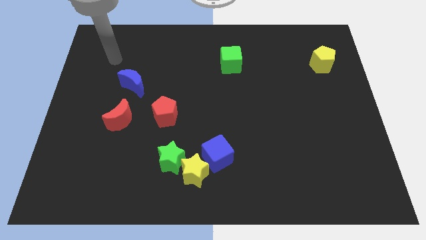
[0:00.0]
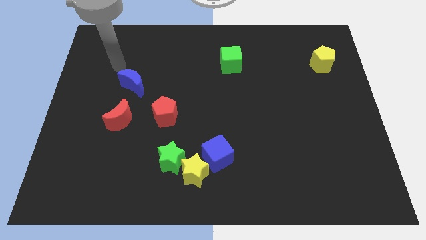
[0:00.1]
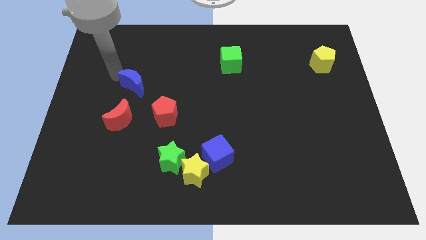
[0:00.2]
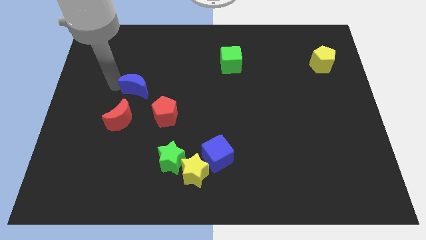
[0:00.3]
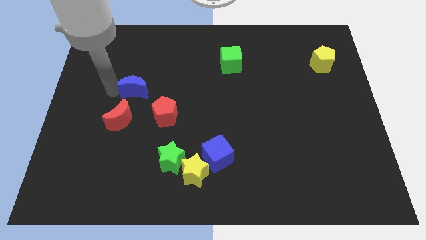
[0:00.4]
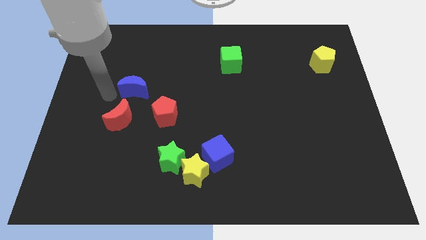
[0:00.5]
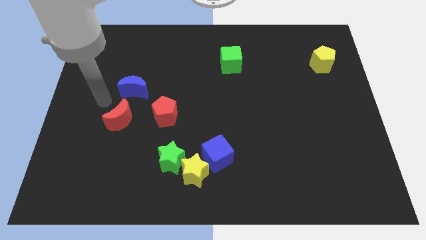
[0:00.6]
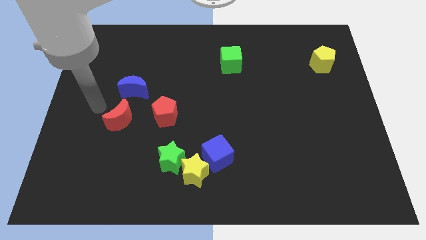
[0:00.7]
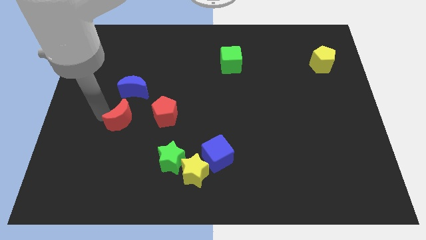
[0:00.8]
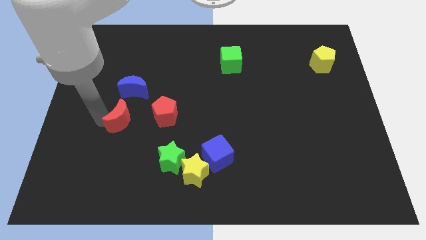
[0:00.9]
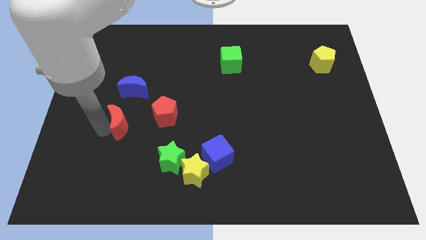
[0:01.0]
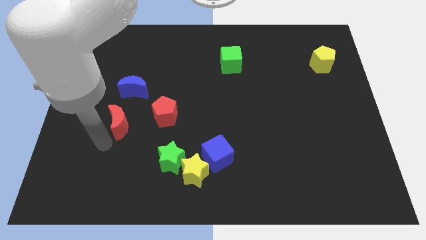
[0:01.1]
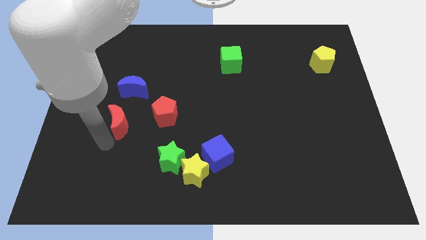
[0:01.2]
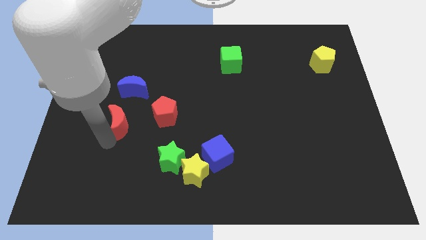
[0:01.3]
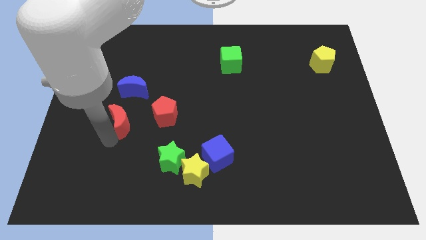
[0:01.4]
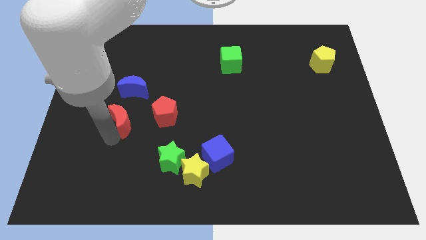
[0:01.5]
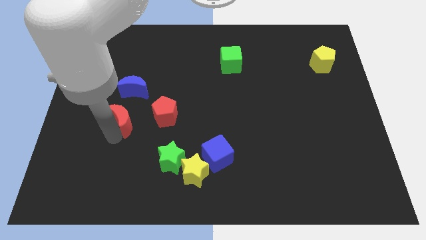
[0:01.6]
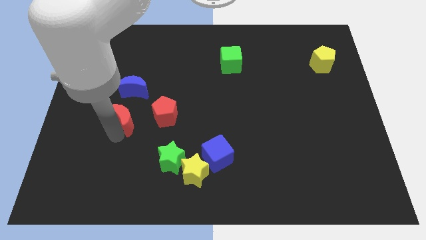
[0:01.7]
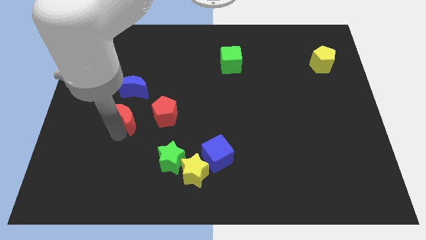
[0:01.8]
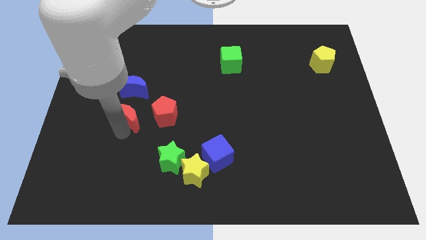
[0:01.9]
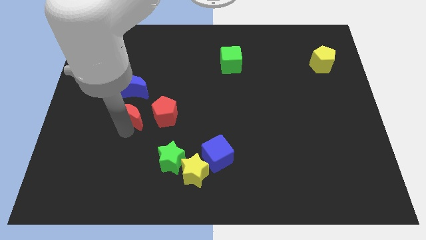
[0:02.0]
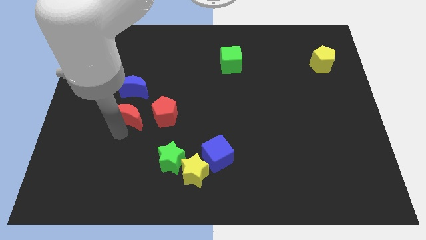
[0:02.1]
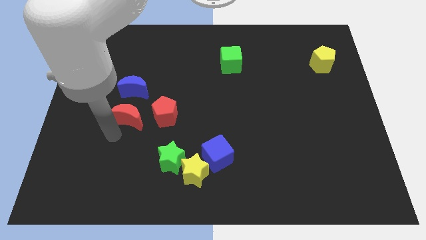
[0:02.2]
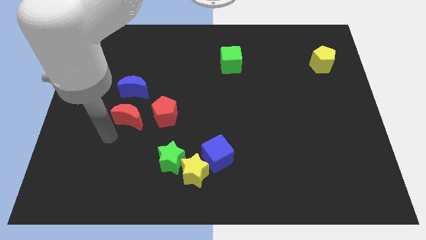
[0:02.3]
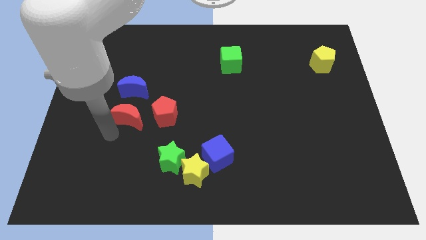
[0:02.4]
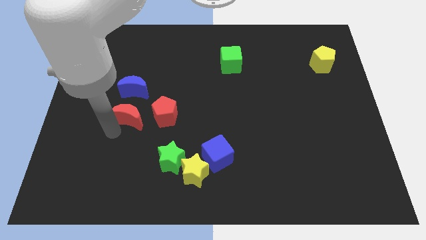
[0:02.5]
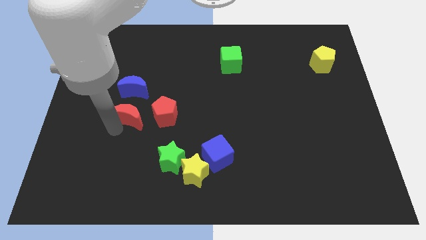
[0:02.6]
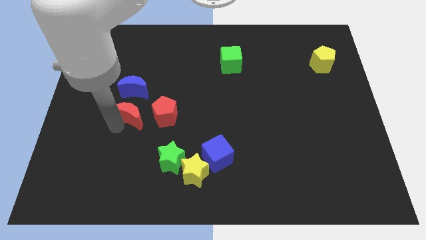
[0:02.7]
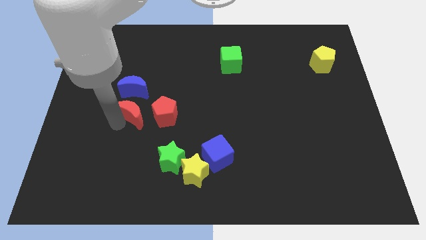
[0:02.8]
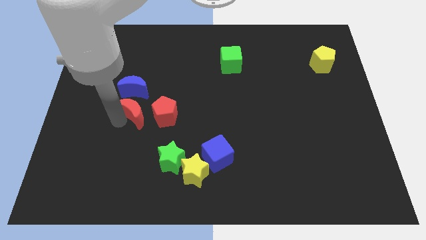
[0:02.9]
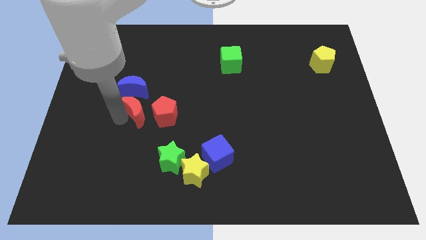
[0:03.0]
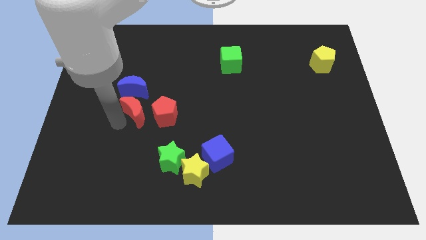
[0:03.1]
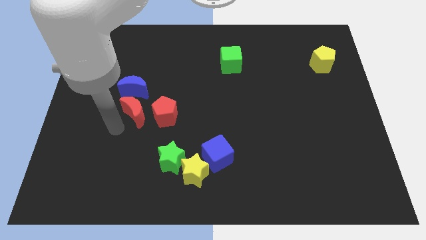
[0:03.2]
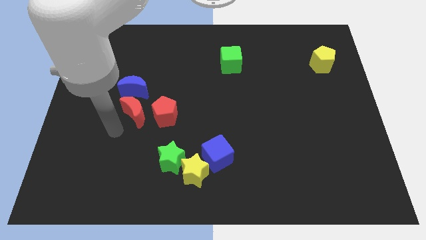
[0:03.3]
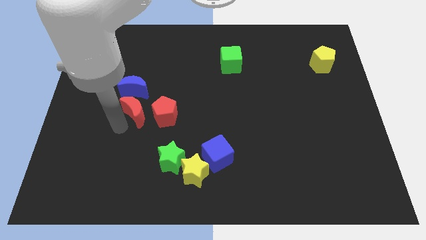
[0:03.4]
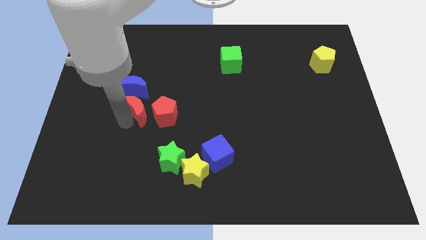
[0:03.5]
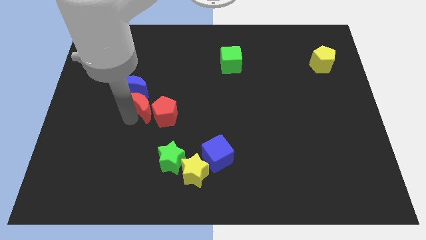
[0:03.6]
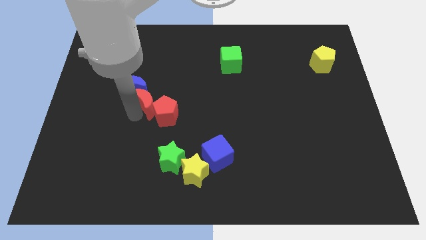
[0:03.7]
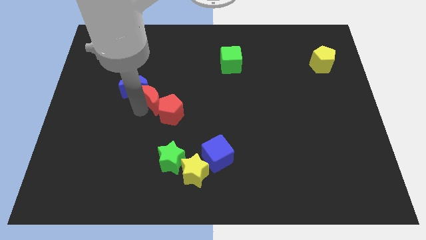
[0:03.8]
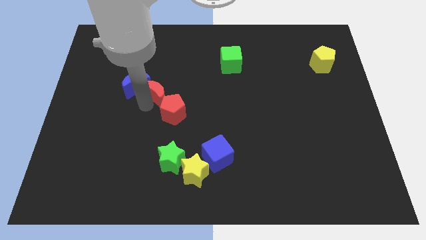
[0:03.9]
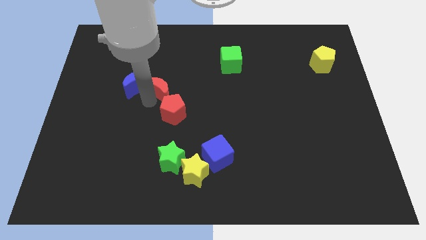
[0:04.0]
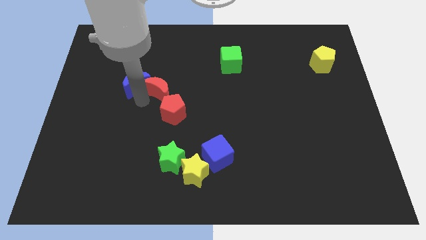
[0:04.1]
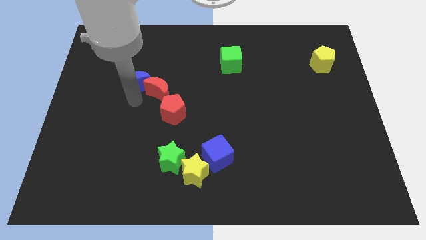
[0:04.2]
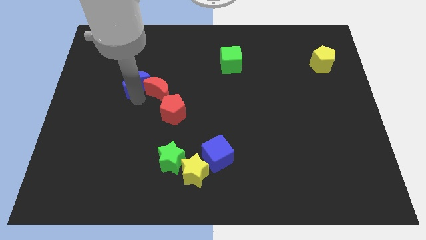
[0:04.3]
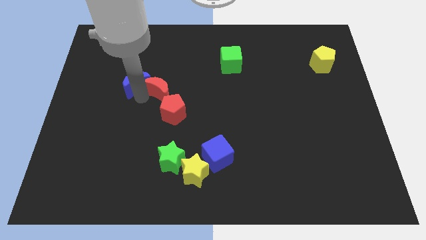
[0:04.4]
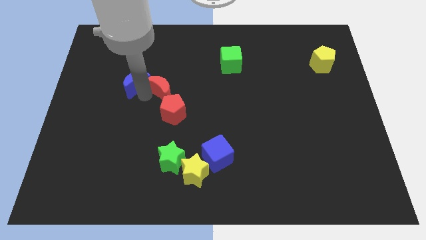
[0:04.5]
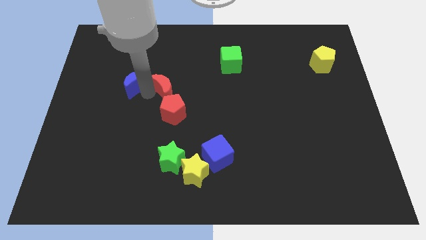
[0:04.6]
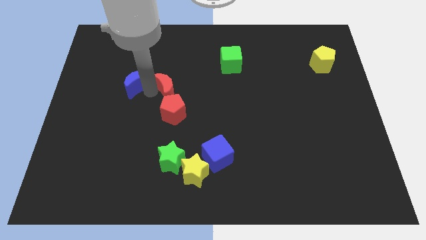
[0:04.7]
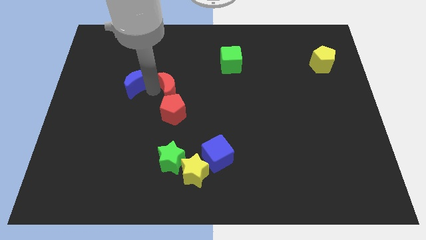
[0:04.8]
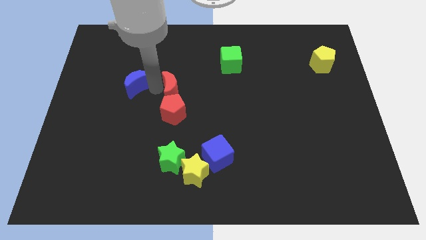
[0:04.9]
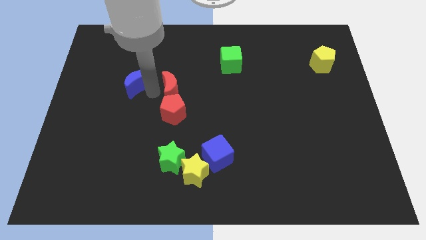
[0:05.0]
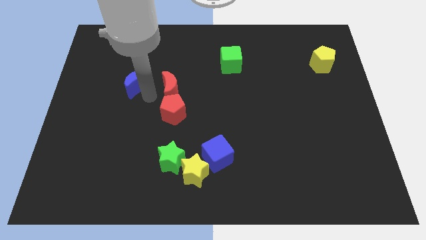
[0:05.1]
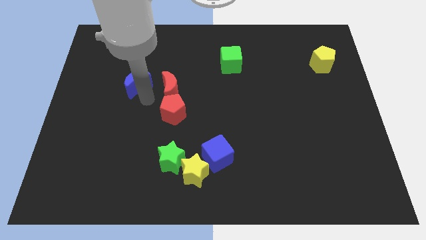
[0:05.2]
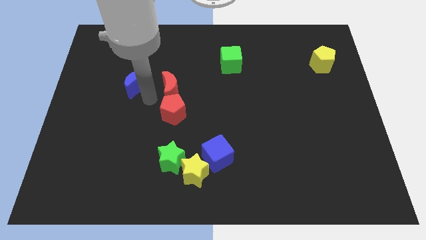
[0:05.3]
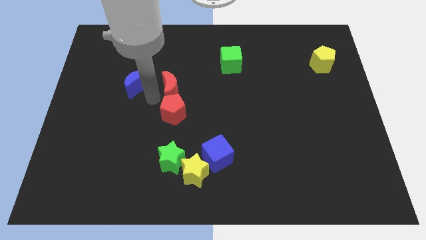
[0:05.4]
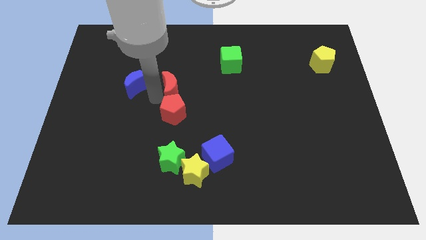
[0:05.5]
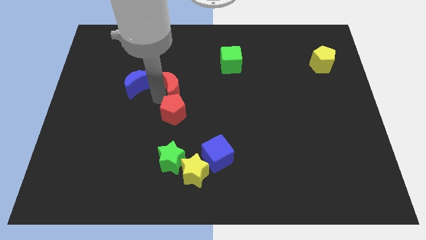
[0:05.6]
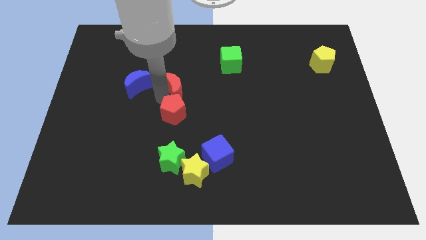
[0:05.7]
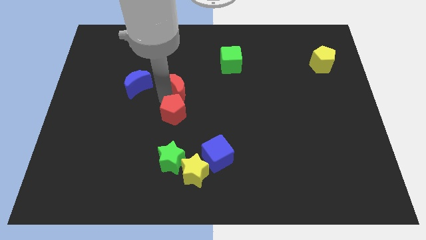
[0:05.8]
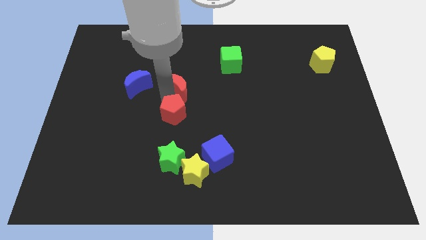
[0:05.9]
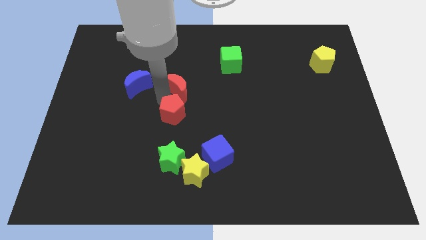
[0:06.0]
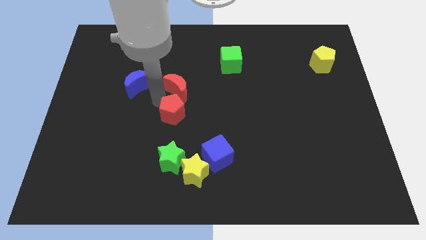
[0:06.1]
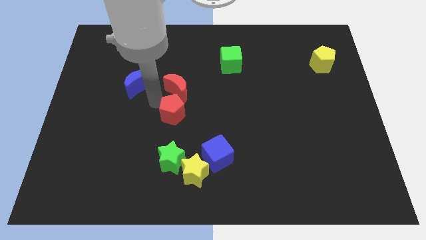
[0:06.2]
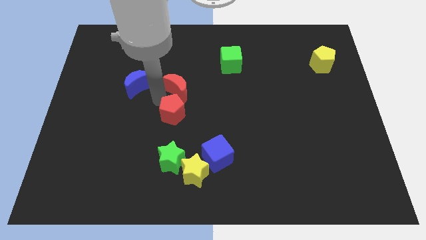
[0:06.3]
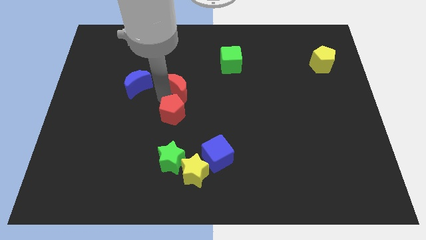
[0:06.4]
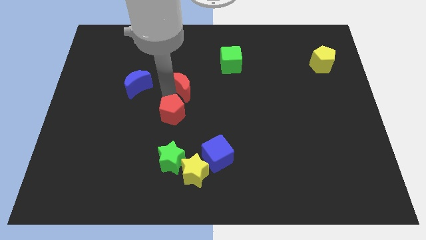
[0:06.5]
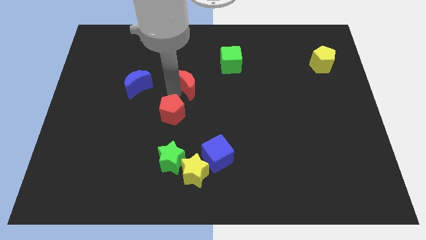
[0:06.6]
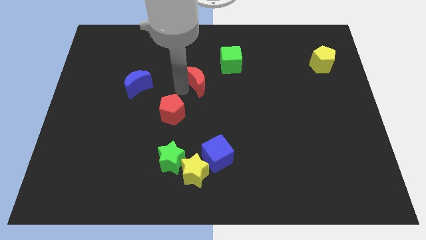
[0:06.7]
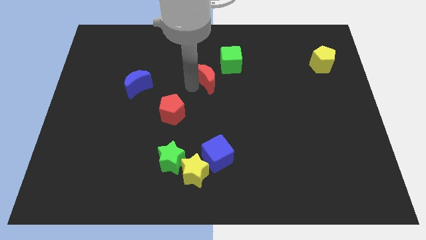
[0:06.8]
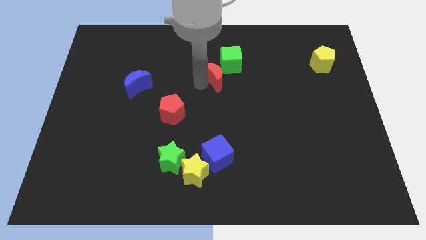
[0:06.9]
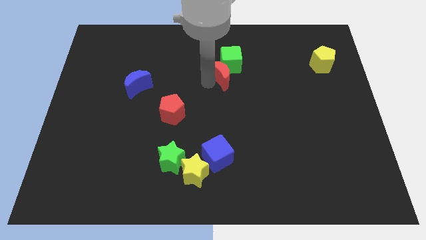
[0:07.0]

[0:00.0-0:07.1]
put the red moon towards the green cube

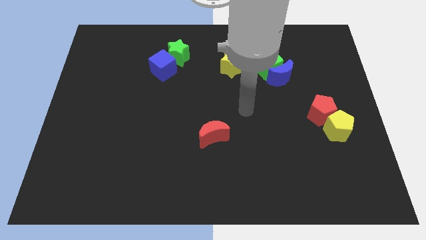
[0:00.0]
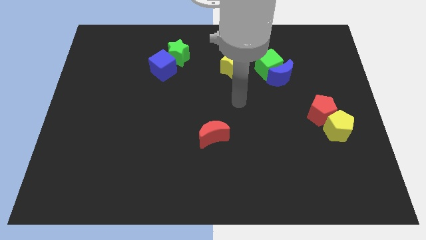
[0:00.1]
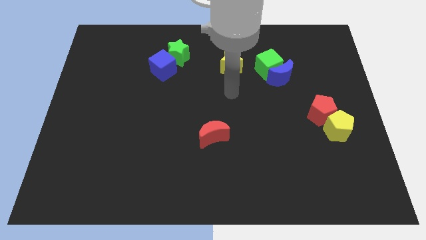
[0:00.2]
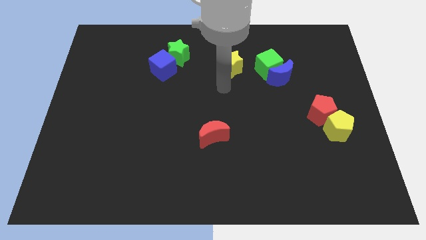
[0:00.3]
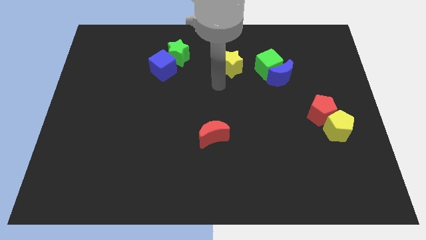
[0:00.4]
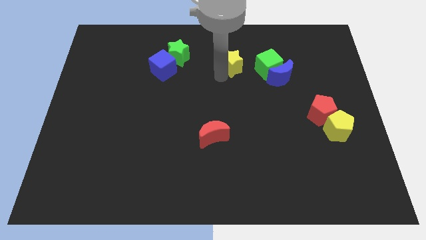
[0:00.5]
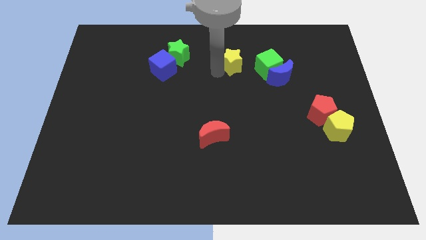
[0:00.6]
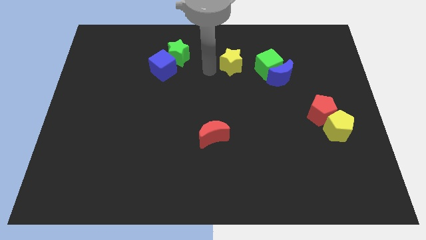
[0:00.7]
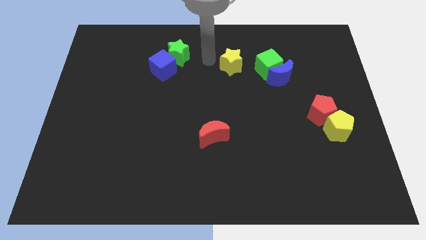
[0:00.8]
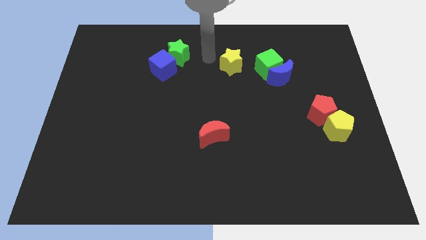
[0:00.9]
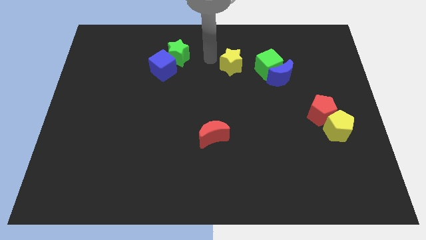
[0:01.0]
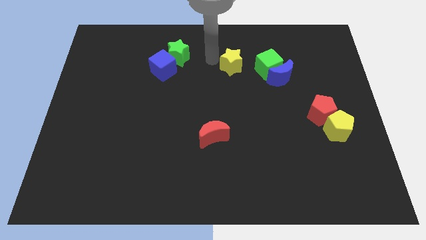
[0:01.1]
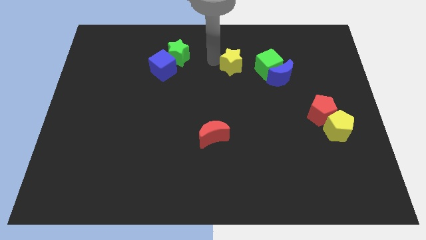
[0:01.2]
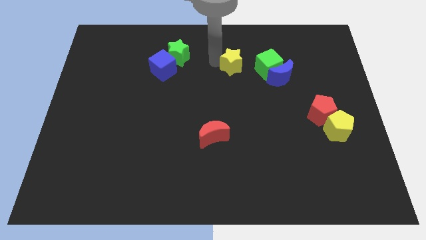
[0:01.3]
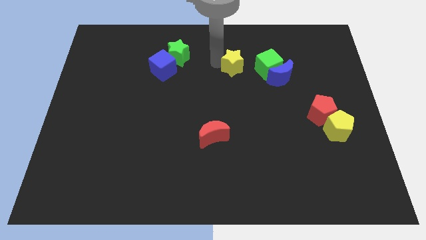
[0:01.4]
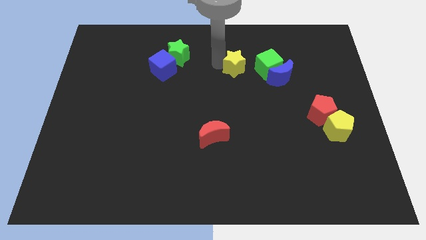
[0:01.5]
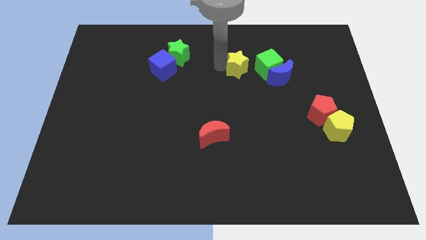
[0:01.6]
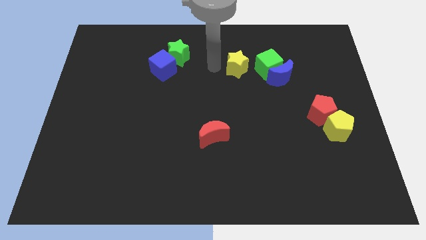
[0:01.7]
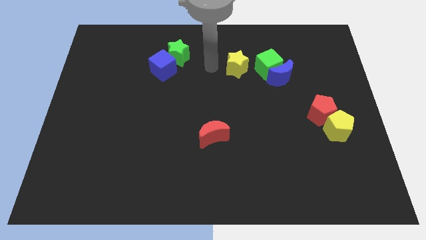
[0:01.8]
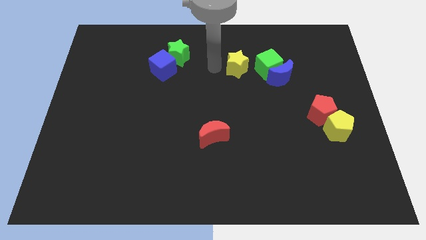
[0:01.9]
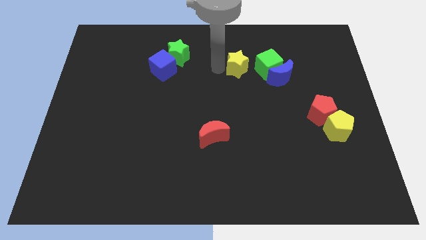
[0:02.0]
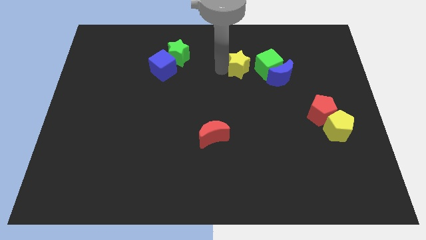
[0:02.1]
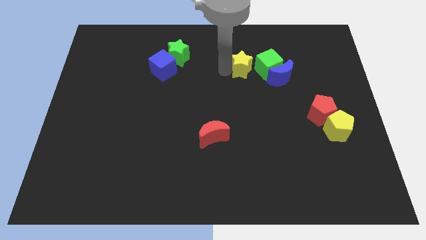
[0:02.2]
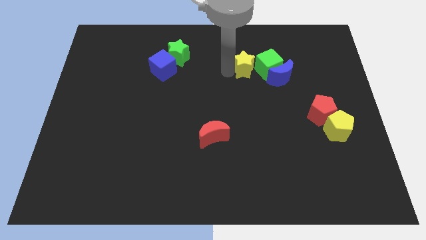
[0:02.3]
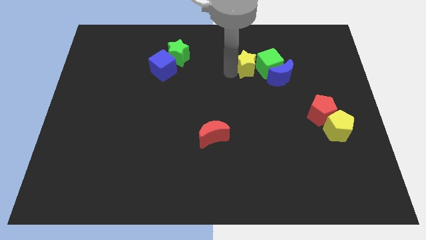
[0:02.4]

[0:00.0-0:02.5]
put the yellow star next to the green cube
